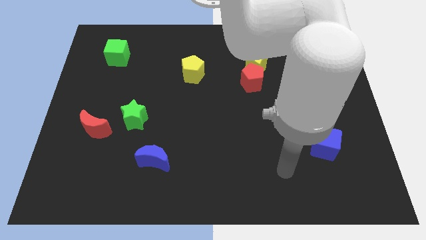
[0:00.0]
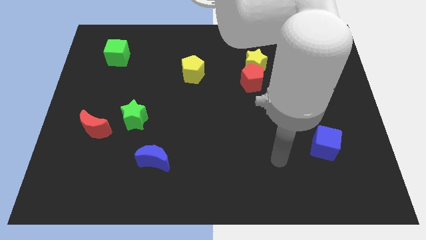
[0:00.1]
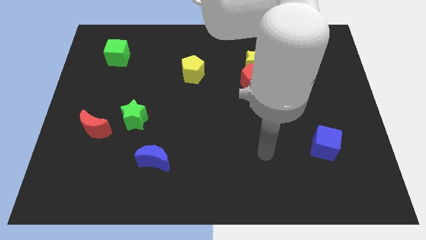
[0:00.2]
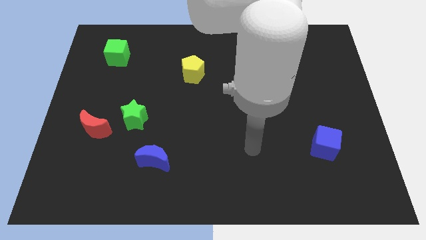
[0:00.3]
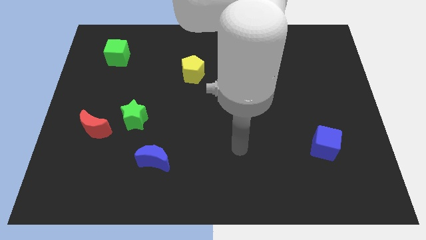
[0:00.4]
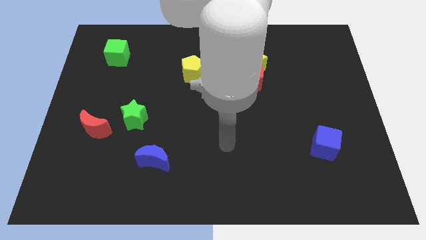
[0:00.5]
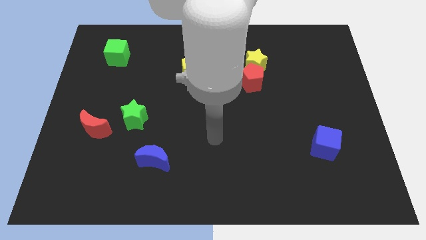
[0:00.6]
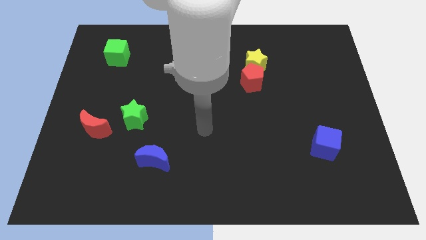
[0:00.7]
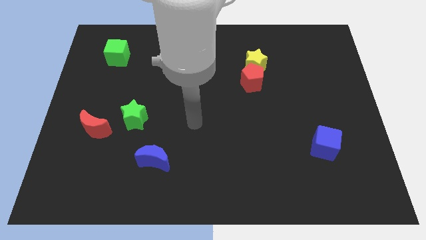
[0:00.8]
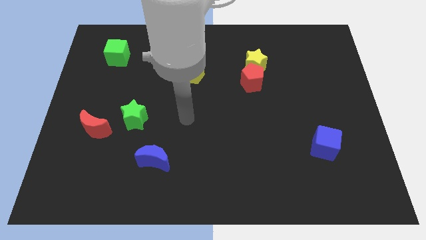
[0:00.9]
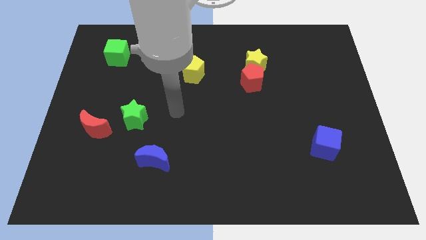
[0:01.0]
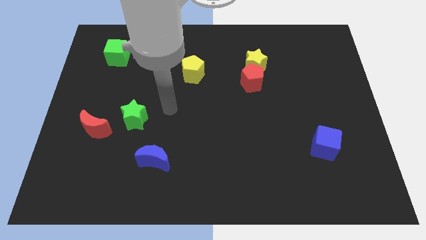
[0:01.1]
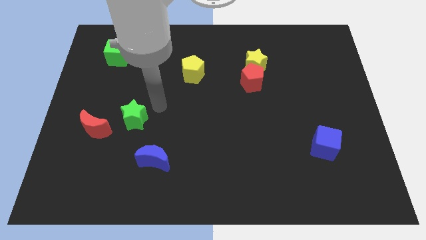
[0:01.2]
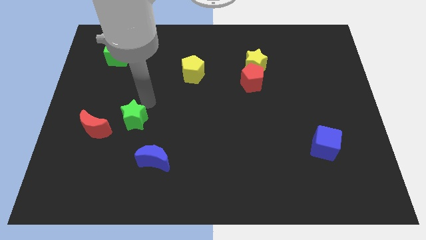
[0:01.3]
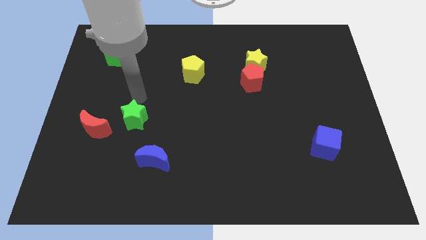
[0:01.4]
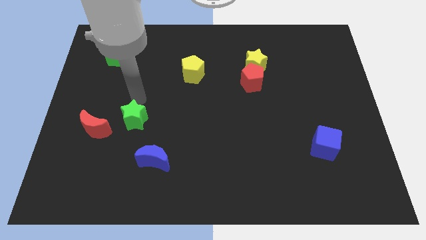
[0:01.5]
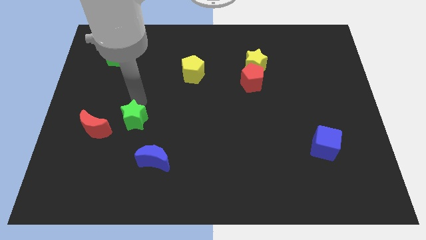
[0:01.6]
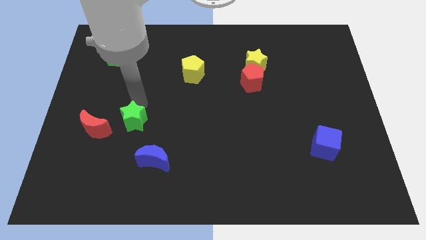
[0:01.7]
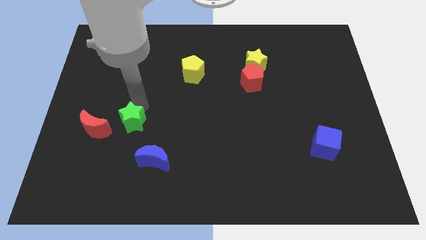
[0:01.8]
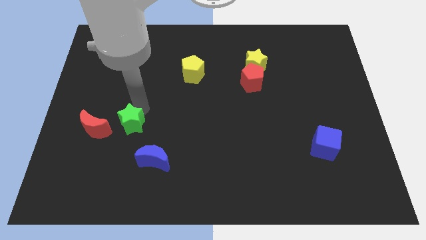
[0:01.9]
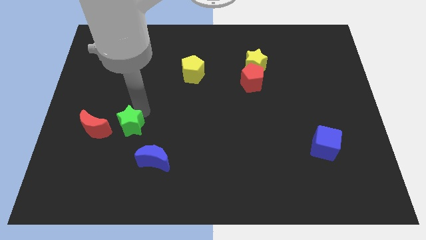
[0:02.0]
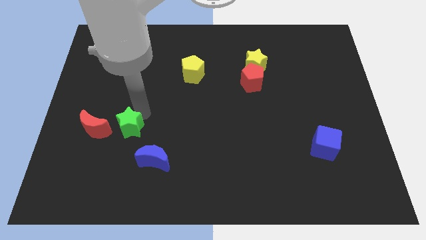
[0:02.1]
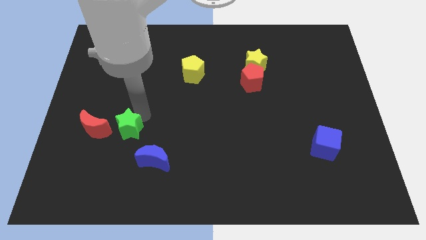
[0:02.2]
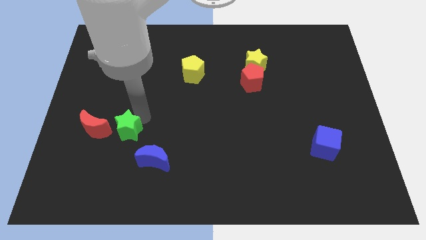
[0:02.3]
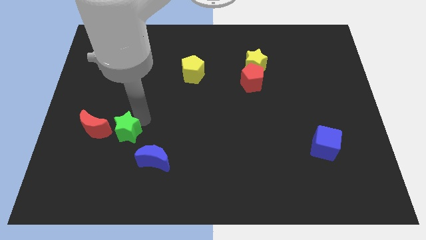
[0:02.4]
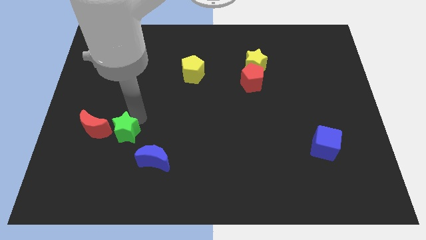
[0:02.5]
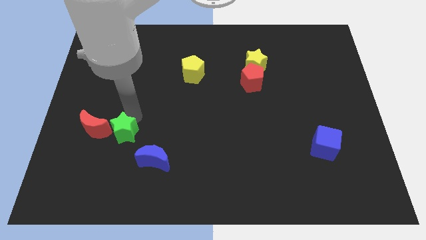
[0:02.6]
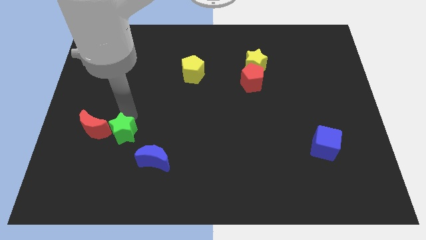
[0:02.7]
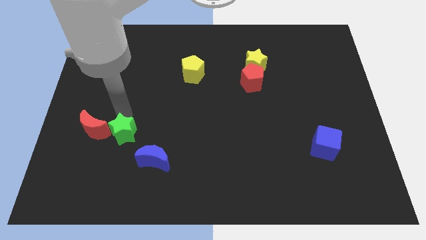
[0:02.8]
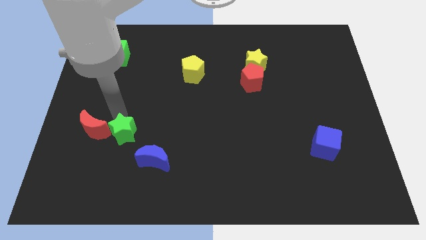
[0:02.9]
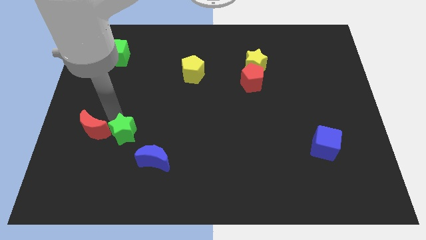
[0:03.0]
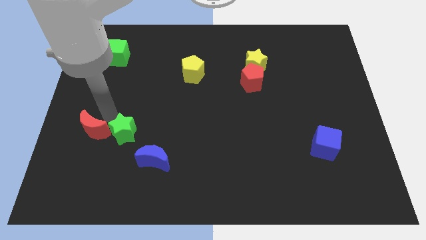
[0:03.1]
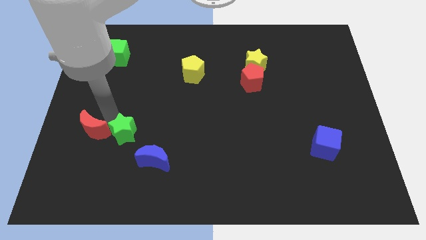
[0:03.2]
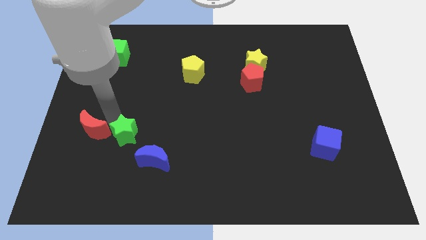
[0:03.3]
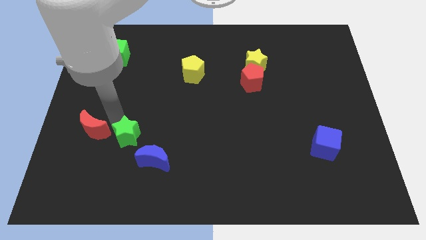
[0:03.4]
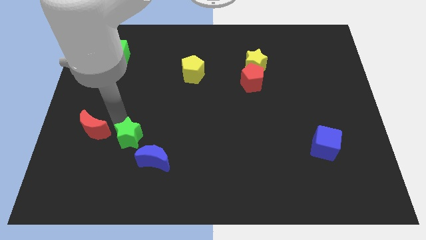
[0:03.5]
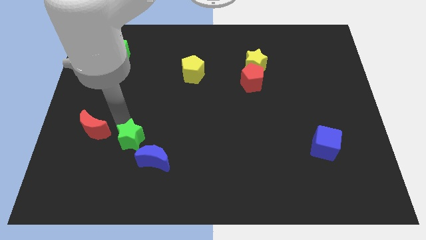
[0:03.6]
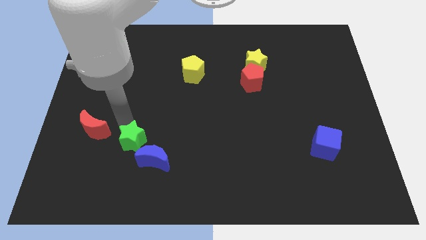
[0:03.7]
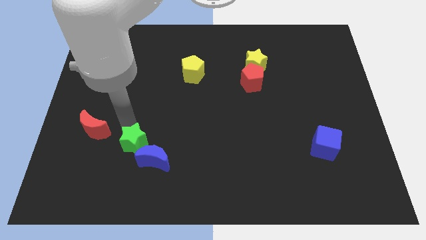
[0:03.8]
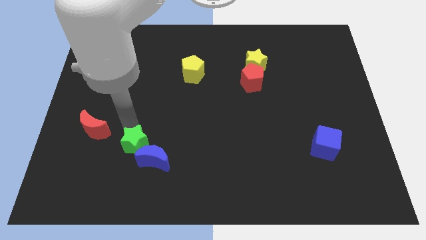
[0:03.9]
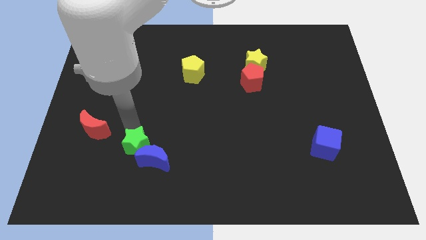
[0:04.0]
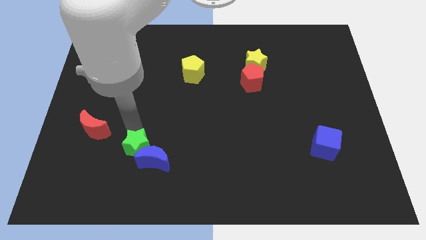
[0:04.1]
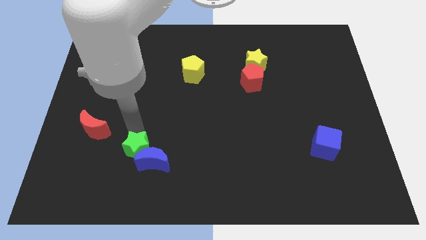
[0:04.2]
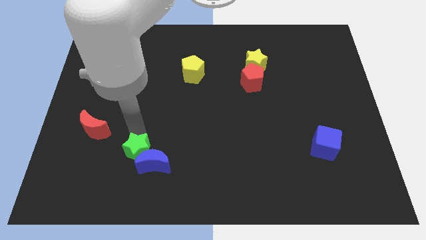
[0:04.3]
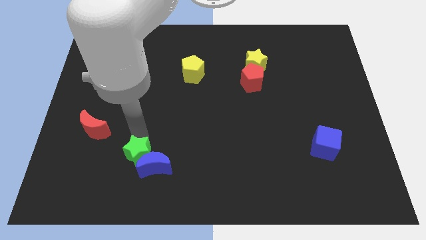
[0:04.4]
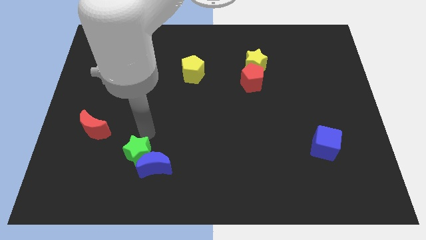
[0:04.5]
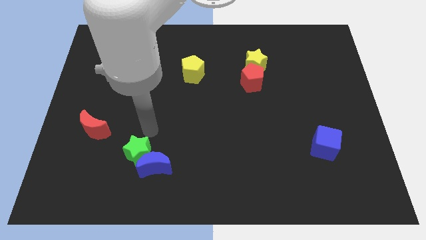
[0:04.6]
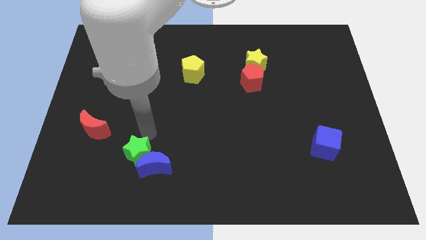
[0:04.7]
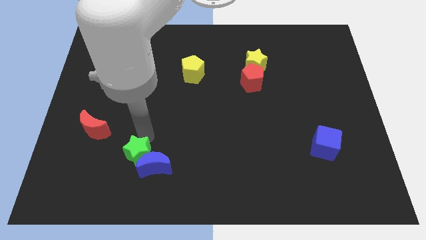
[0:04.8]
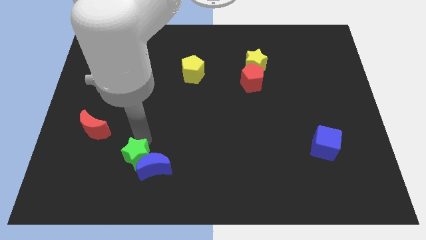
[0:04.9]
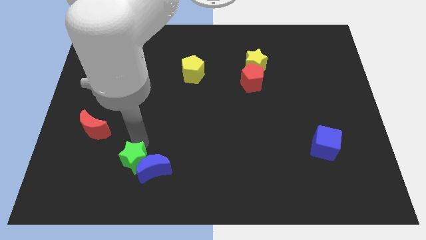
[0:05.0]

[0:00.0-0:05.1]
move the green star diagonally down and to the left of the blue moon

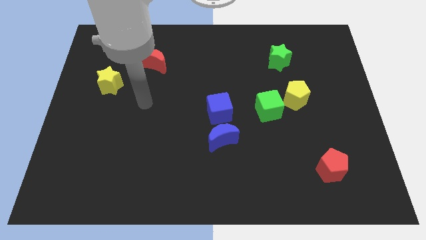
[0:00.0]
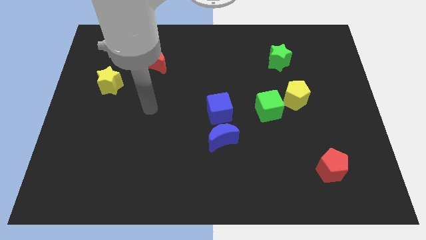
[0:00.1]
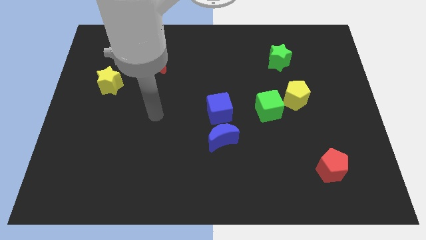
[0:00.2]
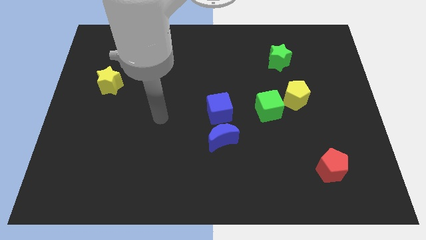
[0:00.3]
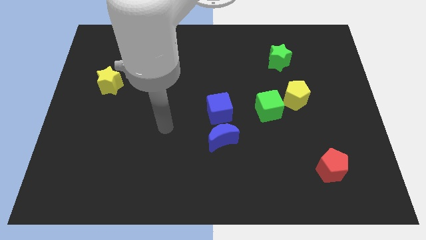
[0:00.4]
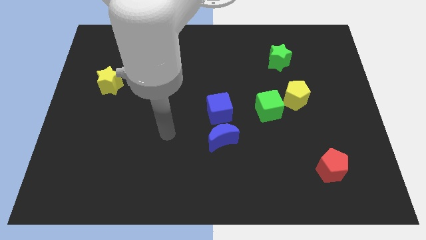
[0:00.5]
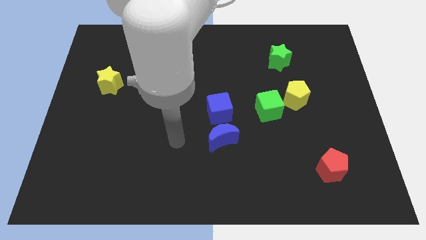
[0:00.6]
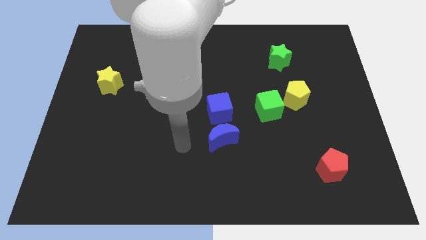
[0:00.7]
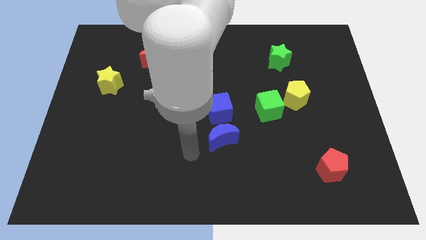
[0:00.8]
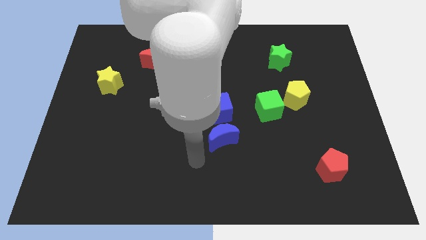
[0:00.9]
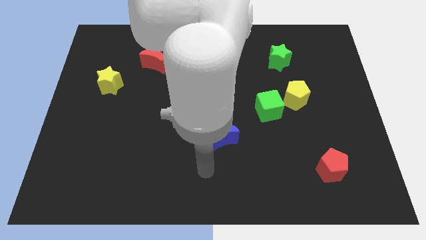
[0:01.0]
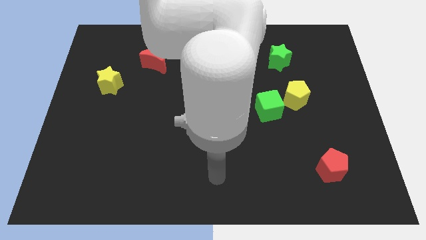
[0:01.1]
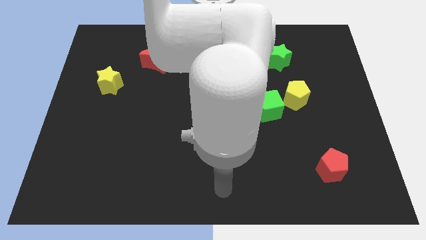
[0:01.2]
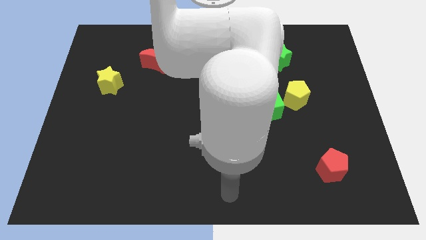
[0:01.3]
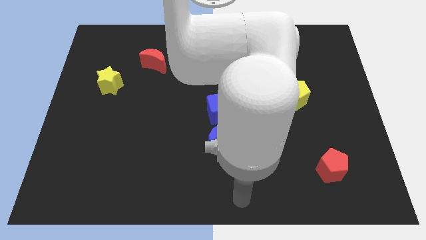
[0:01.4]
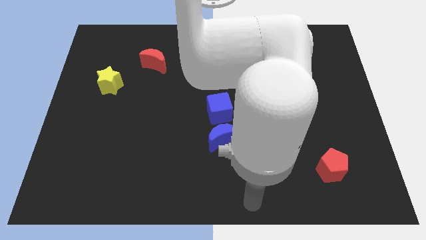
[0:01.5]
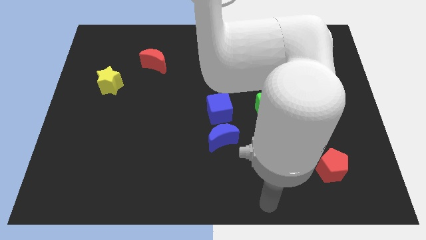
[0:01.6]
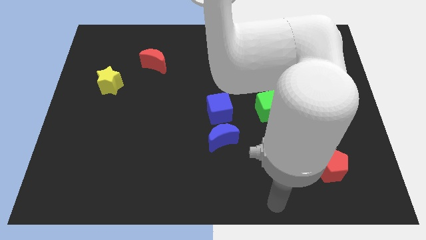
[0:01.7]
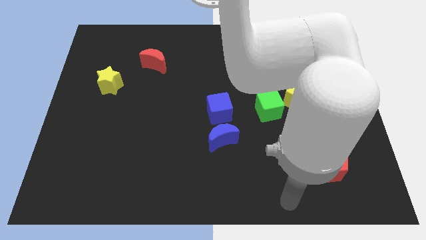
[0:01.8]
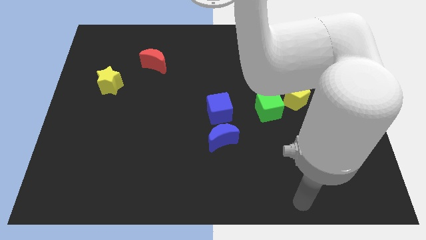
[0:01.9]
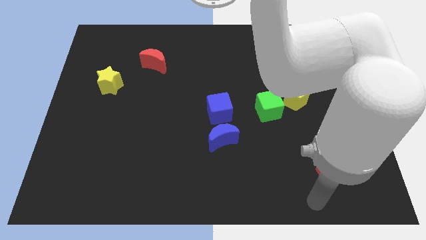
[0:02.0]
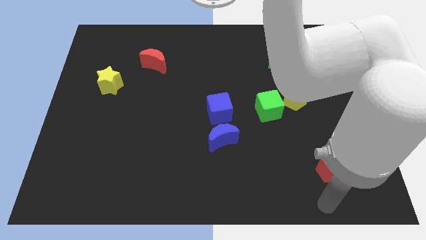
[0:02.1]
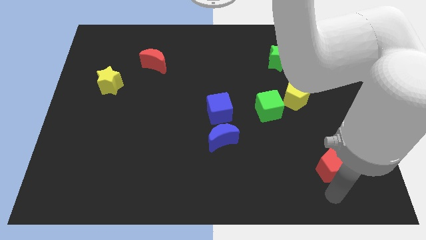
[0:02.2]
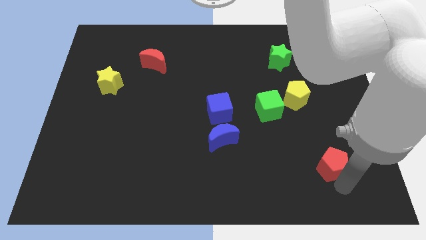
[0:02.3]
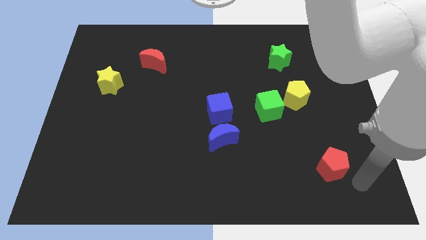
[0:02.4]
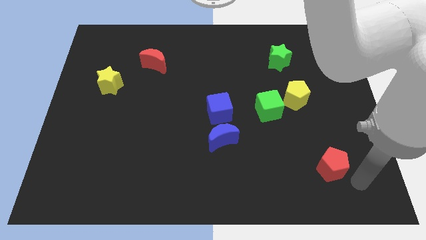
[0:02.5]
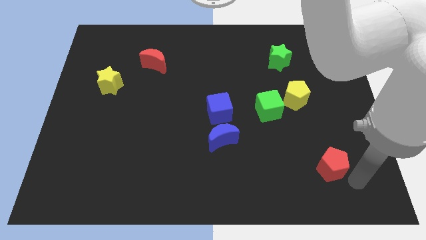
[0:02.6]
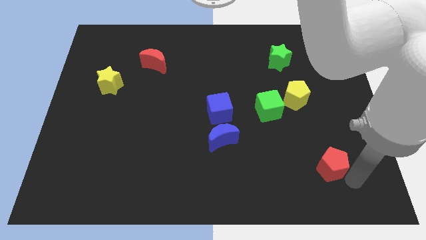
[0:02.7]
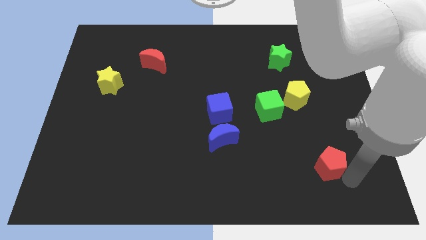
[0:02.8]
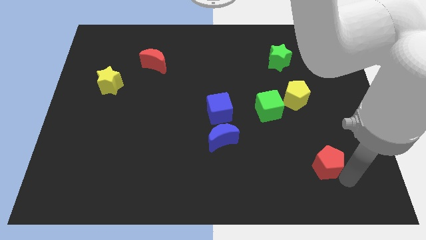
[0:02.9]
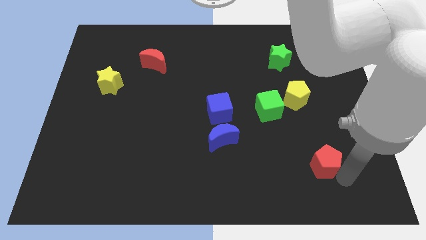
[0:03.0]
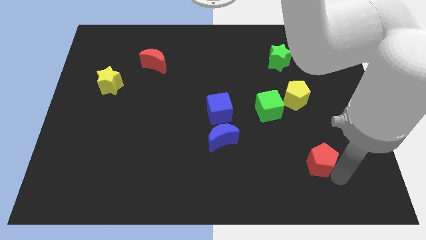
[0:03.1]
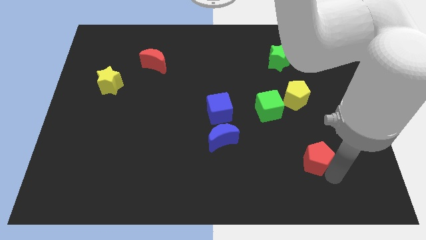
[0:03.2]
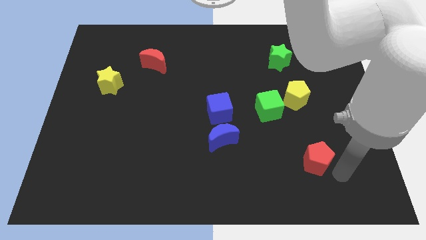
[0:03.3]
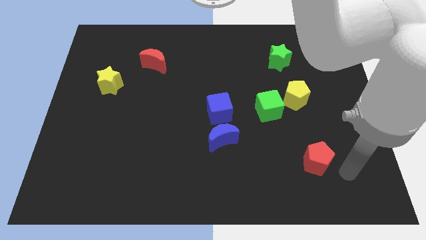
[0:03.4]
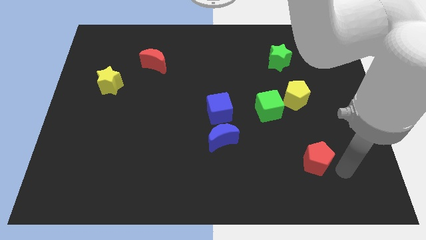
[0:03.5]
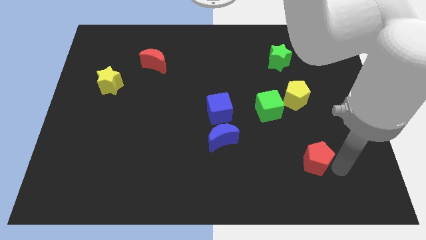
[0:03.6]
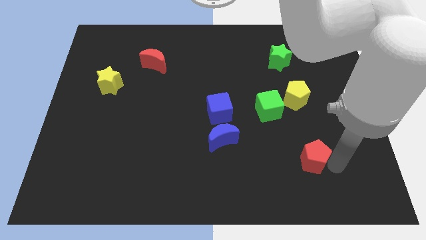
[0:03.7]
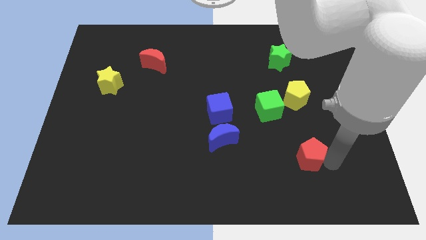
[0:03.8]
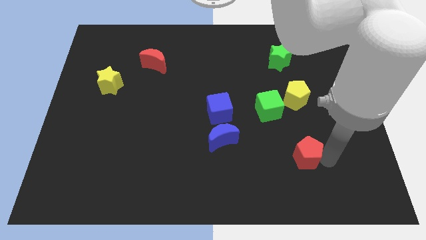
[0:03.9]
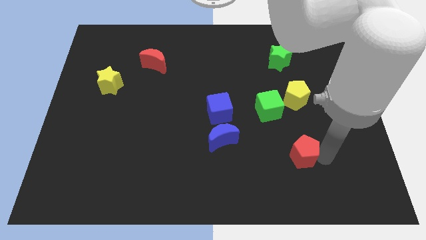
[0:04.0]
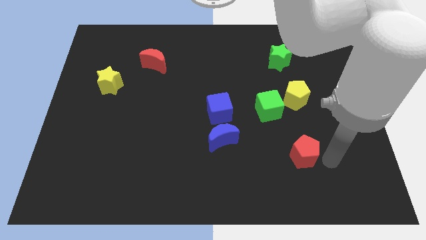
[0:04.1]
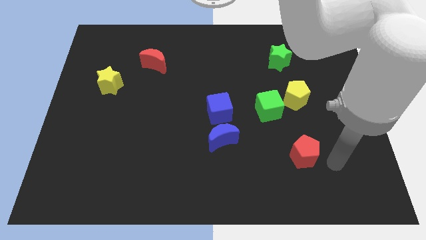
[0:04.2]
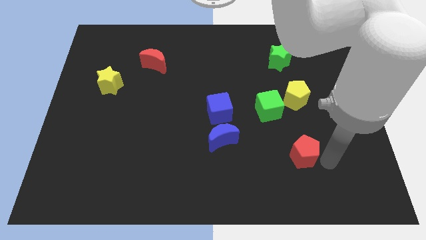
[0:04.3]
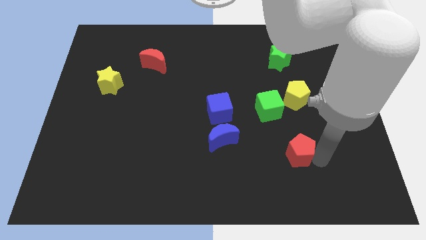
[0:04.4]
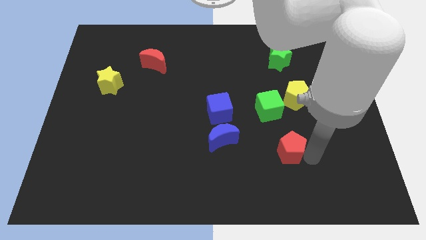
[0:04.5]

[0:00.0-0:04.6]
slide the red pentagon to the bottom of the green cube
